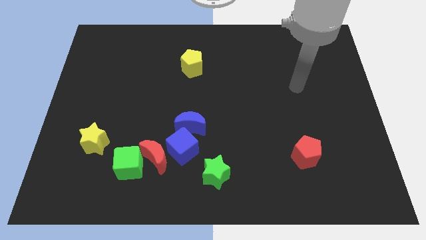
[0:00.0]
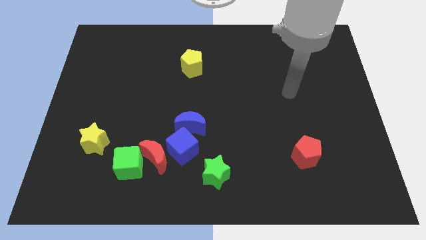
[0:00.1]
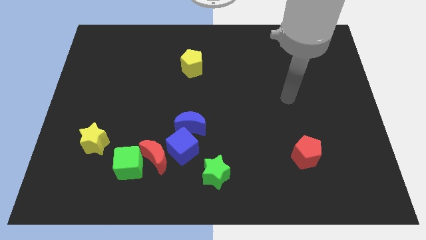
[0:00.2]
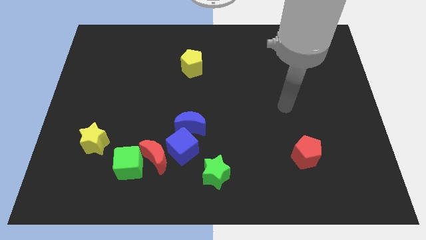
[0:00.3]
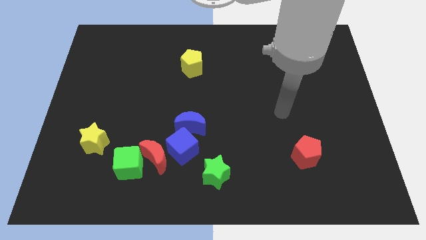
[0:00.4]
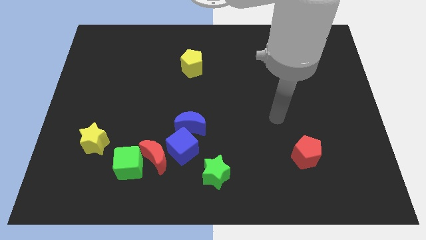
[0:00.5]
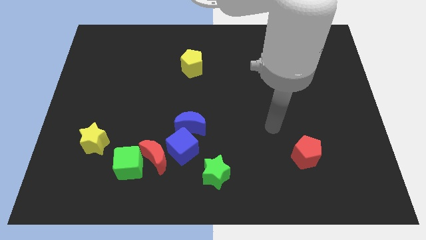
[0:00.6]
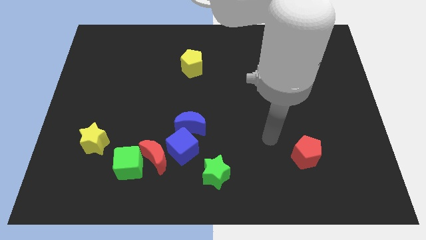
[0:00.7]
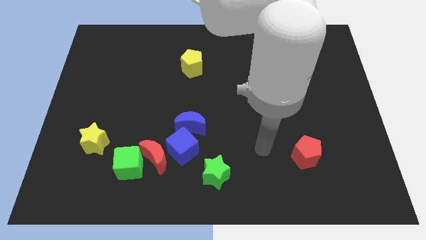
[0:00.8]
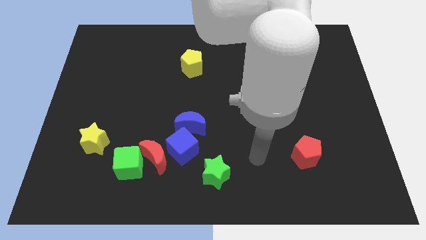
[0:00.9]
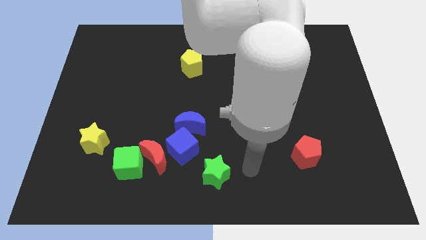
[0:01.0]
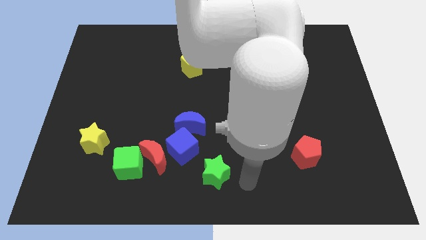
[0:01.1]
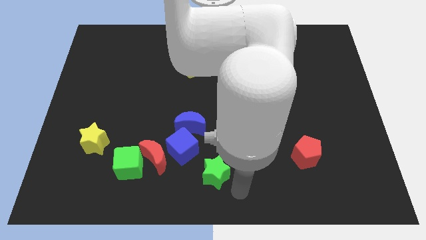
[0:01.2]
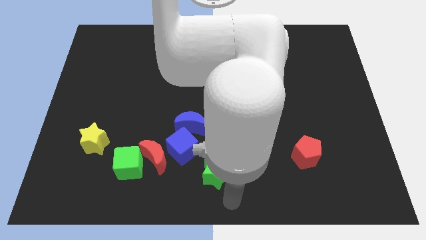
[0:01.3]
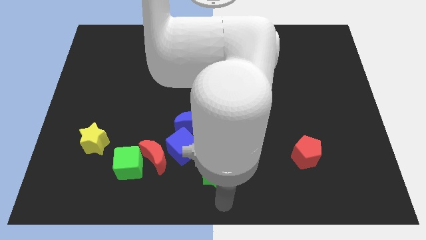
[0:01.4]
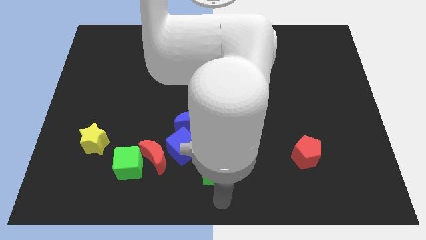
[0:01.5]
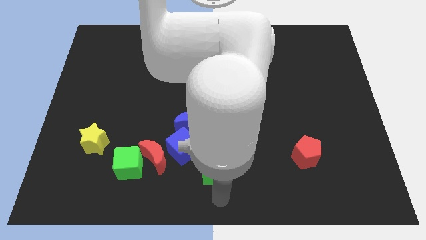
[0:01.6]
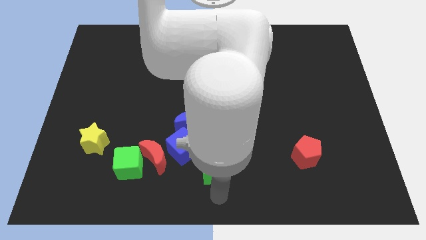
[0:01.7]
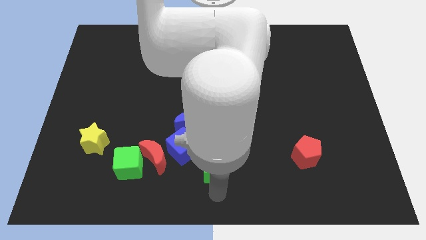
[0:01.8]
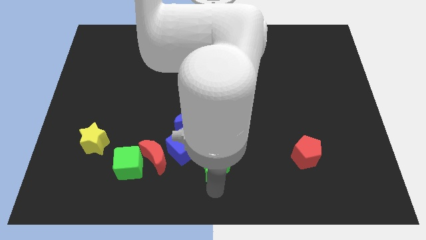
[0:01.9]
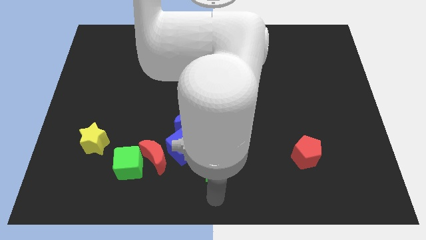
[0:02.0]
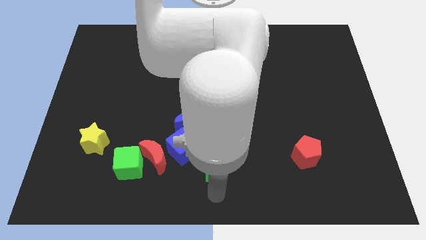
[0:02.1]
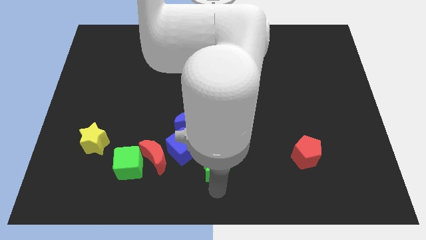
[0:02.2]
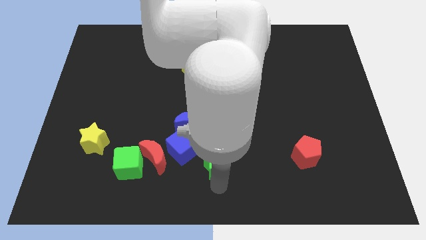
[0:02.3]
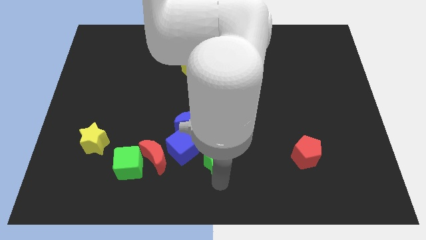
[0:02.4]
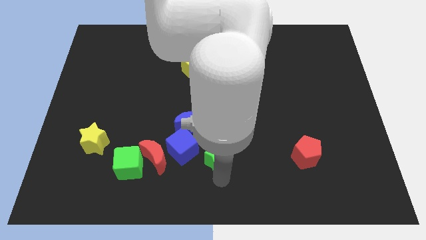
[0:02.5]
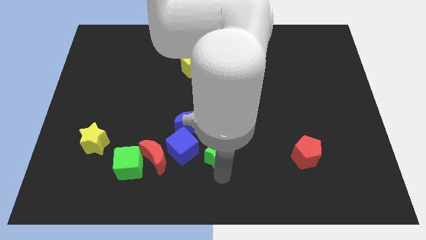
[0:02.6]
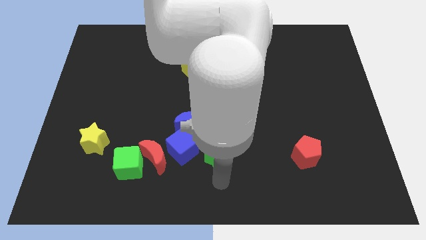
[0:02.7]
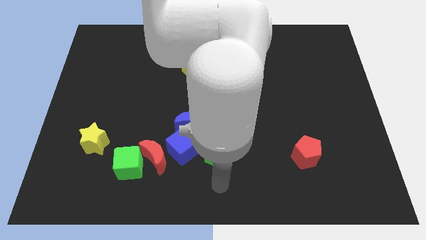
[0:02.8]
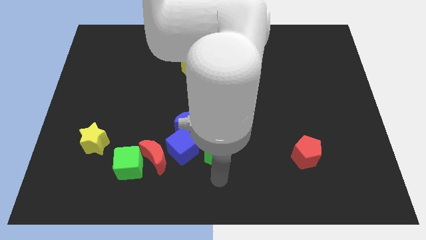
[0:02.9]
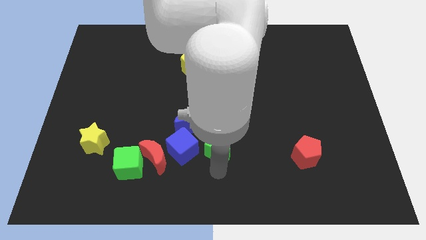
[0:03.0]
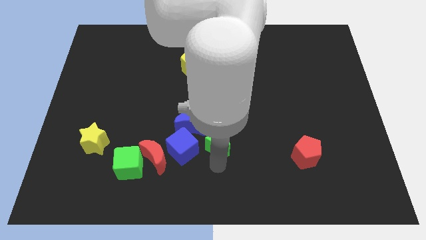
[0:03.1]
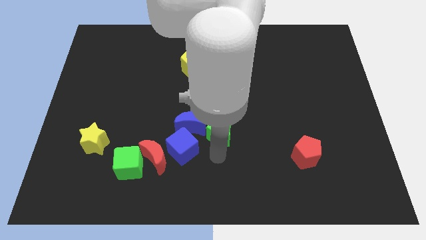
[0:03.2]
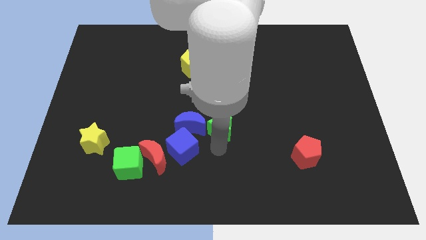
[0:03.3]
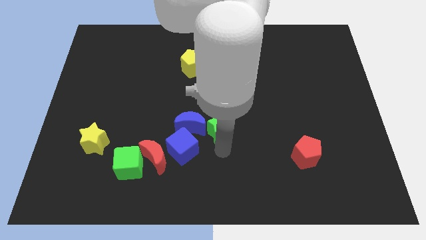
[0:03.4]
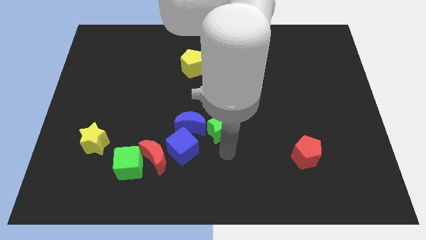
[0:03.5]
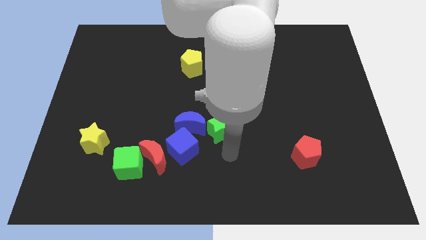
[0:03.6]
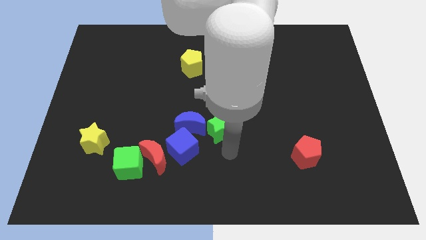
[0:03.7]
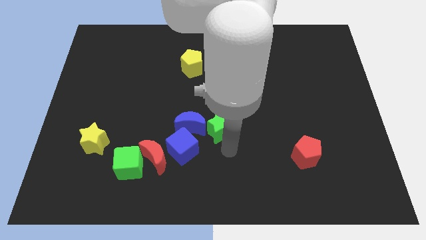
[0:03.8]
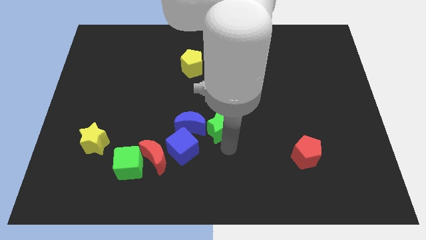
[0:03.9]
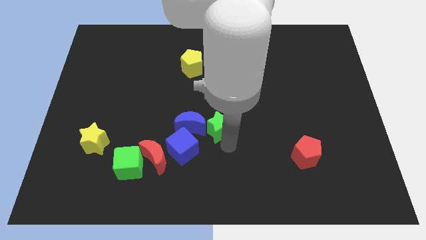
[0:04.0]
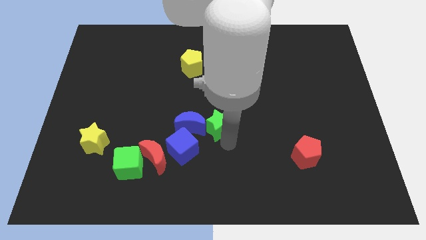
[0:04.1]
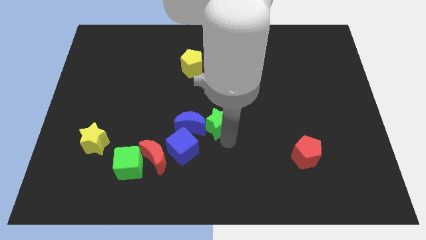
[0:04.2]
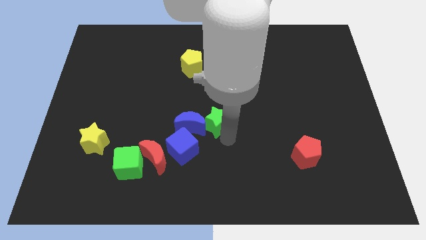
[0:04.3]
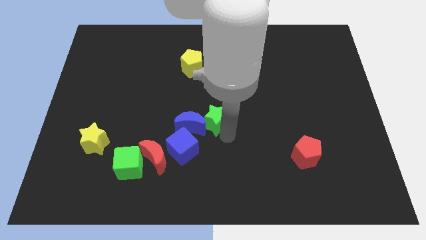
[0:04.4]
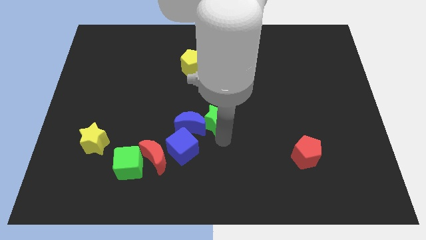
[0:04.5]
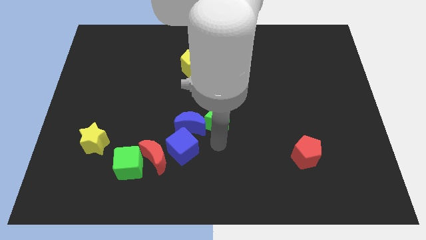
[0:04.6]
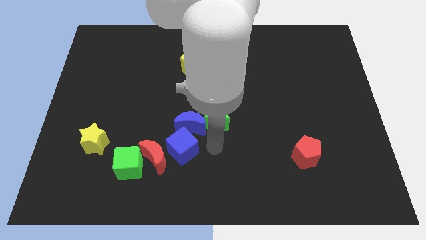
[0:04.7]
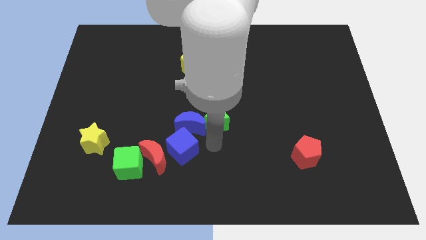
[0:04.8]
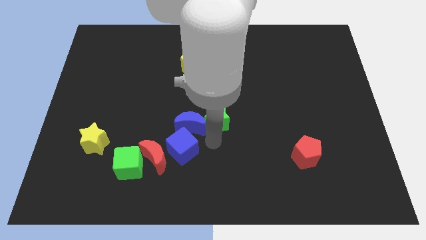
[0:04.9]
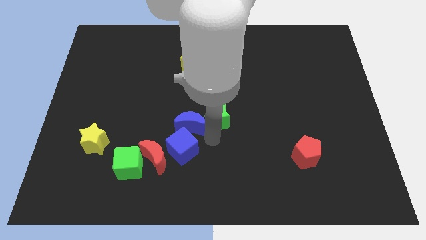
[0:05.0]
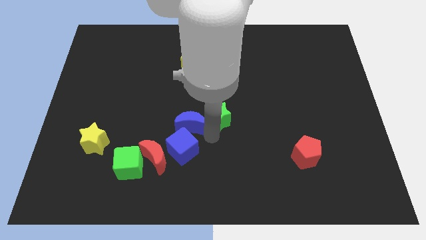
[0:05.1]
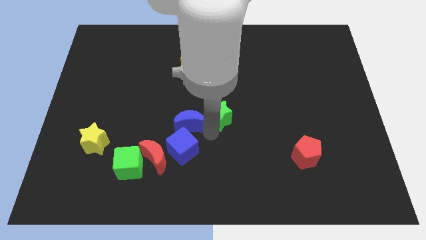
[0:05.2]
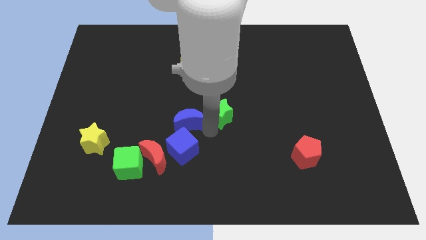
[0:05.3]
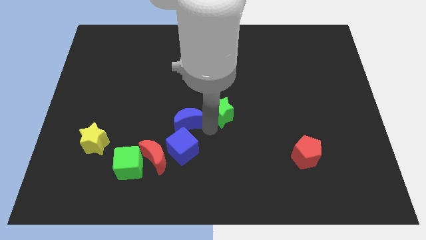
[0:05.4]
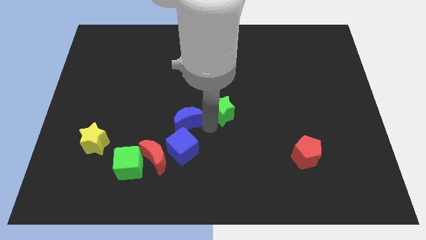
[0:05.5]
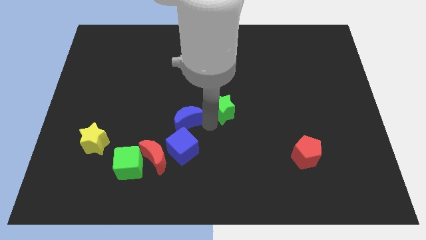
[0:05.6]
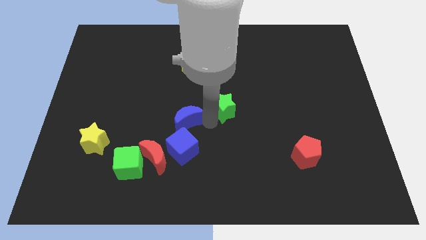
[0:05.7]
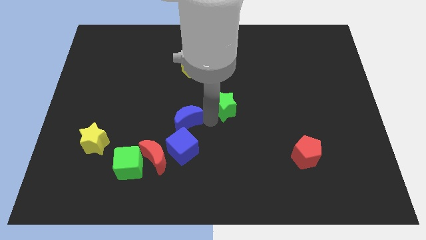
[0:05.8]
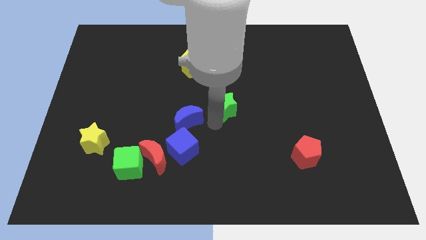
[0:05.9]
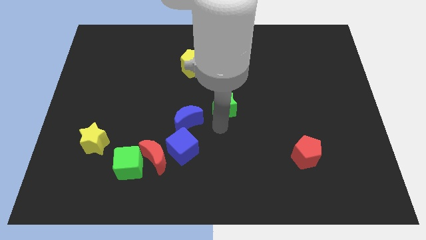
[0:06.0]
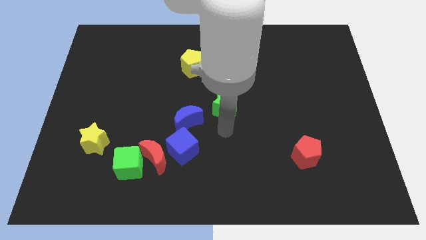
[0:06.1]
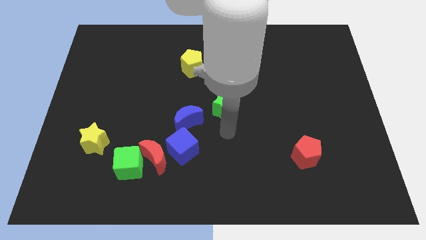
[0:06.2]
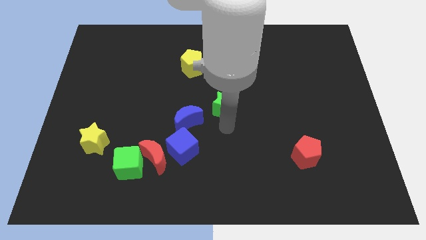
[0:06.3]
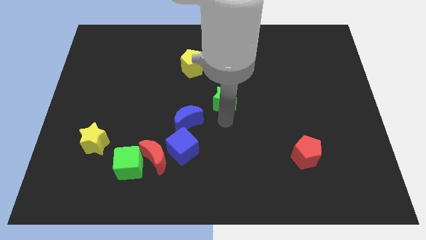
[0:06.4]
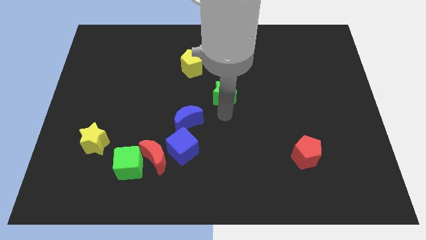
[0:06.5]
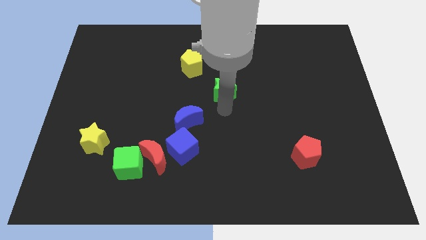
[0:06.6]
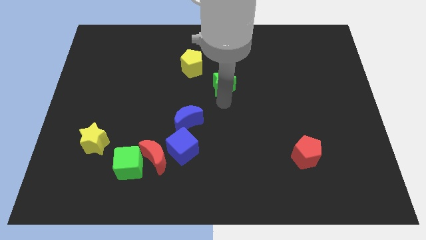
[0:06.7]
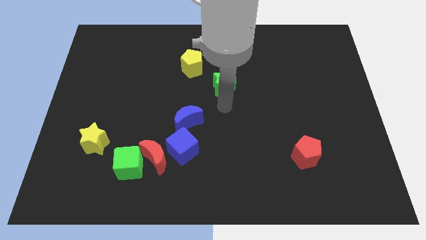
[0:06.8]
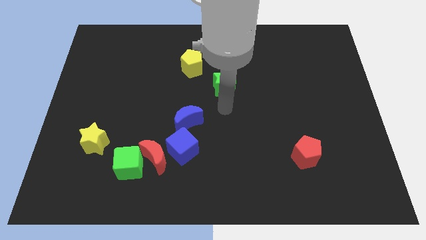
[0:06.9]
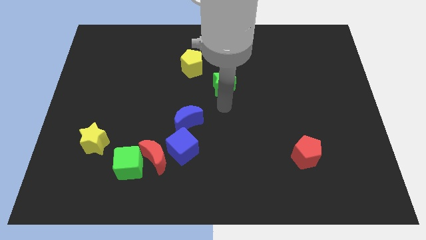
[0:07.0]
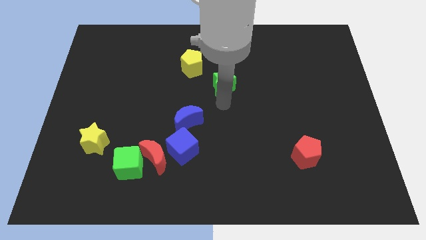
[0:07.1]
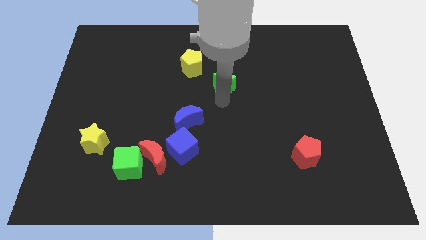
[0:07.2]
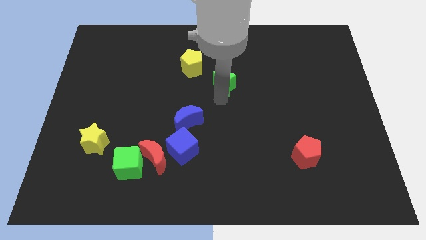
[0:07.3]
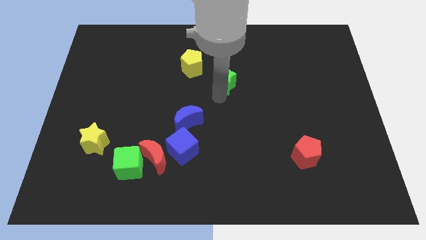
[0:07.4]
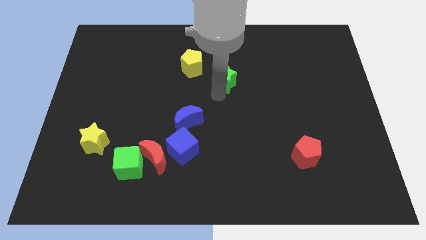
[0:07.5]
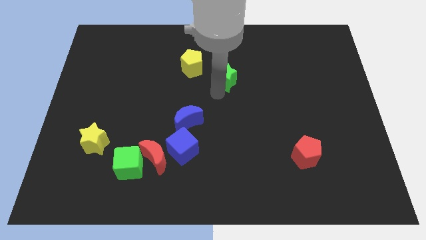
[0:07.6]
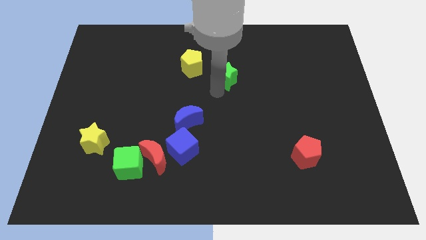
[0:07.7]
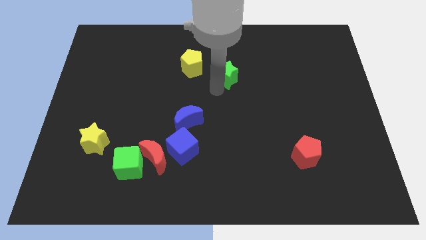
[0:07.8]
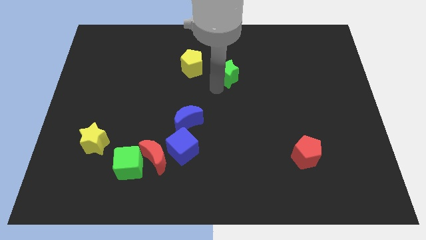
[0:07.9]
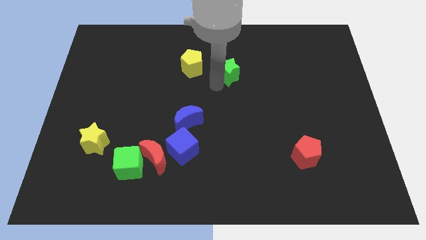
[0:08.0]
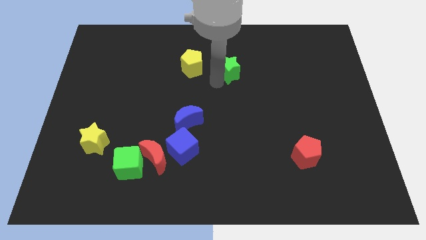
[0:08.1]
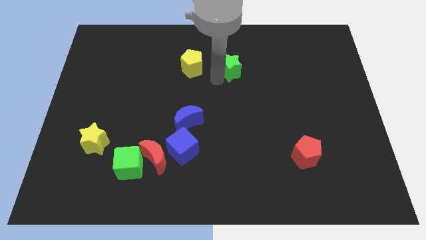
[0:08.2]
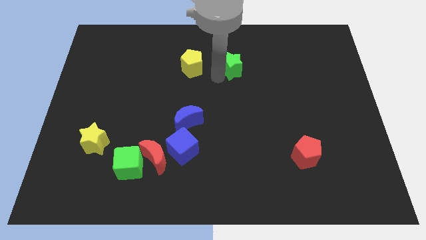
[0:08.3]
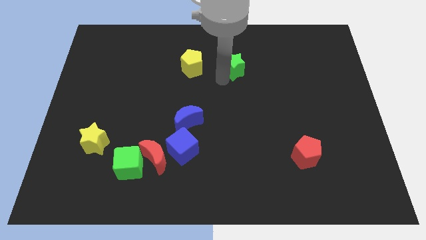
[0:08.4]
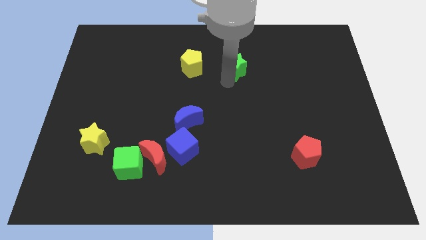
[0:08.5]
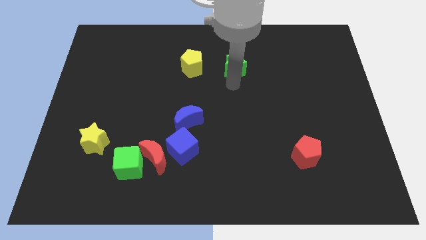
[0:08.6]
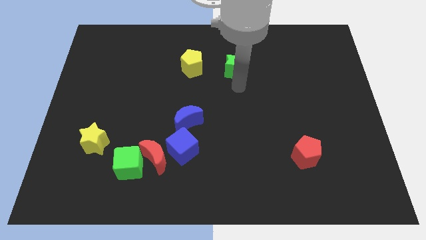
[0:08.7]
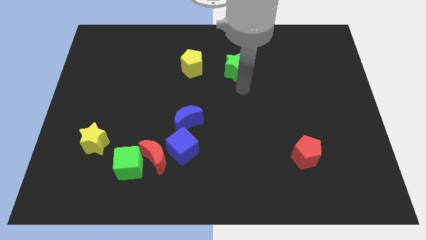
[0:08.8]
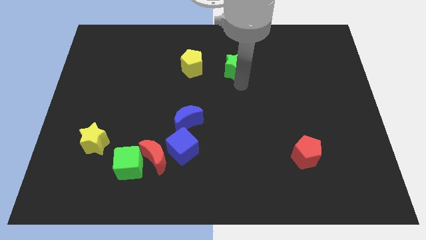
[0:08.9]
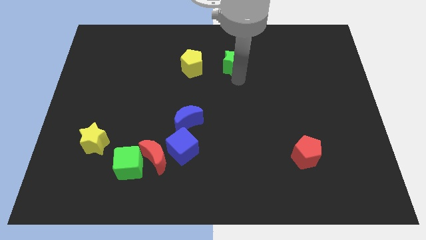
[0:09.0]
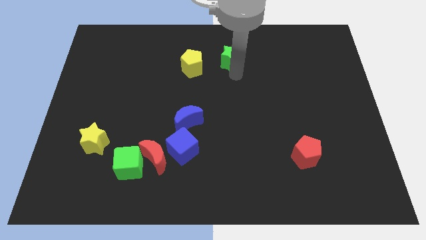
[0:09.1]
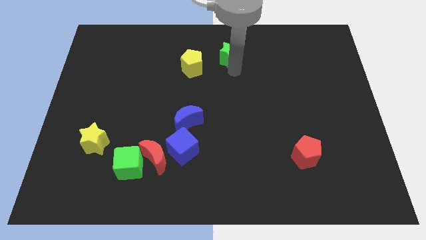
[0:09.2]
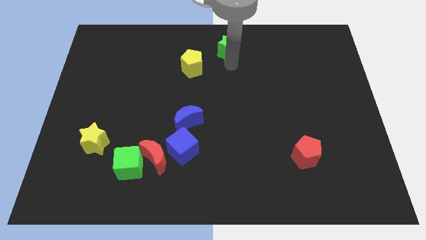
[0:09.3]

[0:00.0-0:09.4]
move the green star to the top
